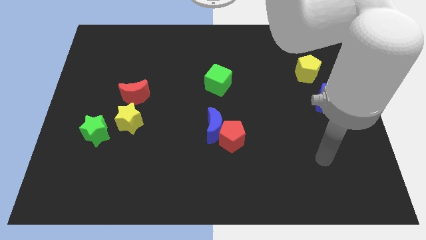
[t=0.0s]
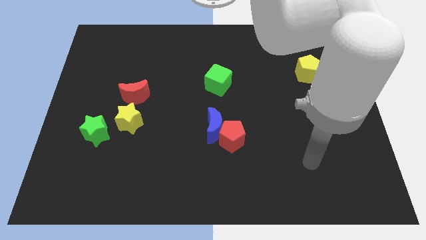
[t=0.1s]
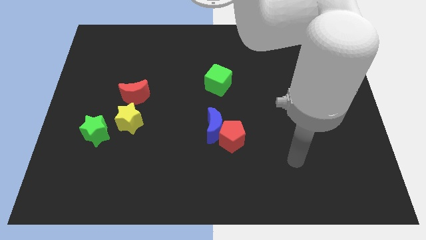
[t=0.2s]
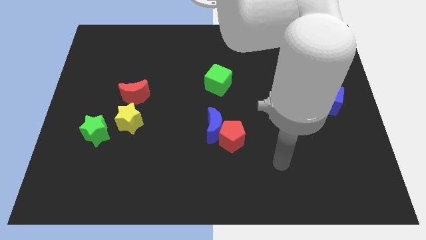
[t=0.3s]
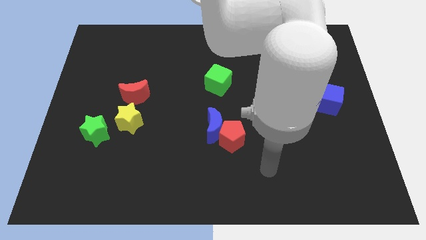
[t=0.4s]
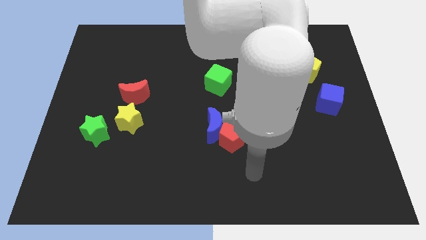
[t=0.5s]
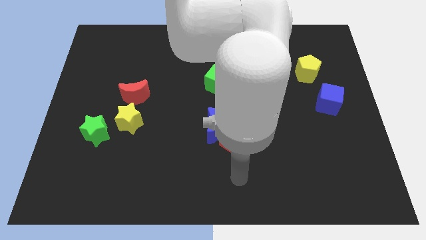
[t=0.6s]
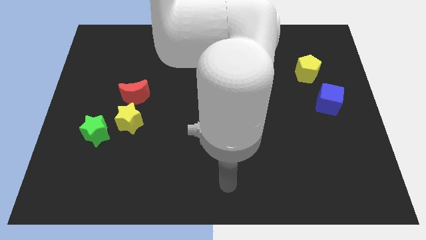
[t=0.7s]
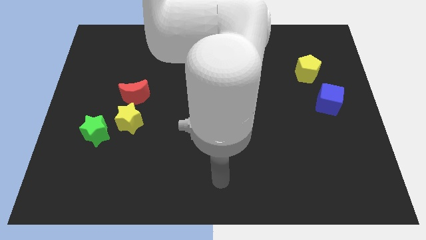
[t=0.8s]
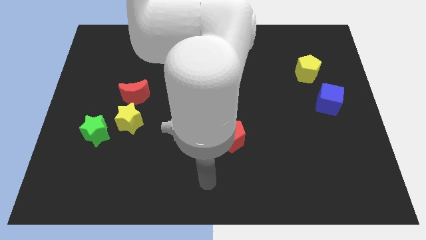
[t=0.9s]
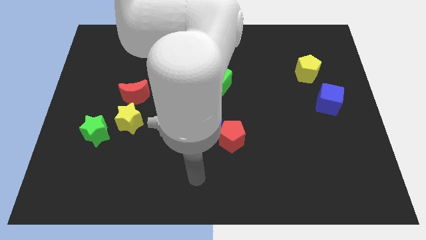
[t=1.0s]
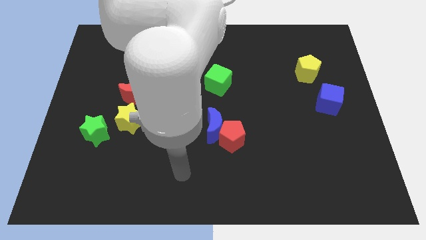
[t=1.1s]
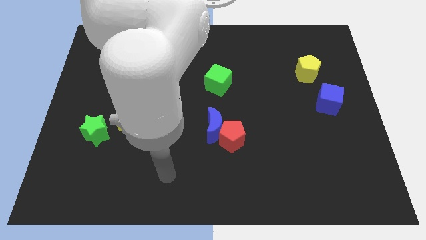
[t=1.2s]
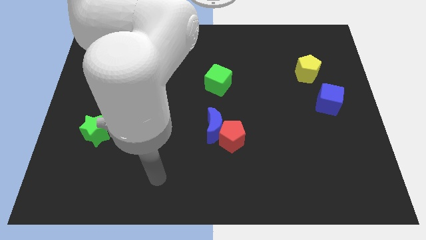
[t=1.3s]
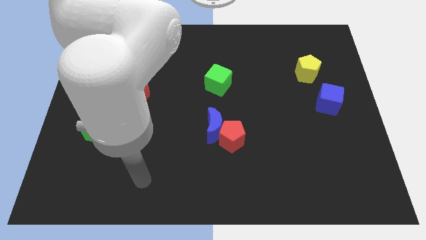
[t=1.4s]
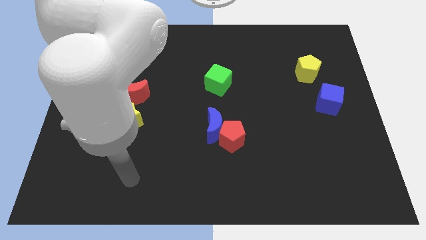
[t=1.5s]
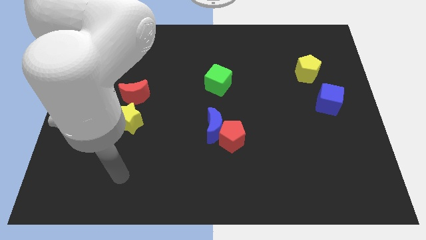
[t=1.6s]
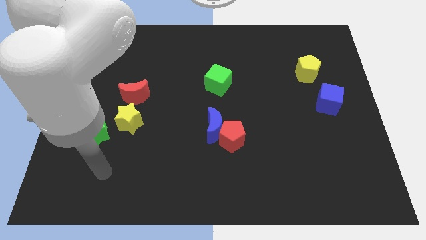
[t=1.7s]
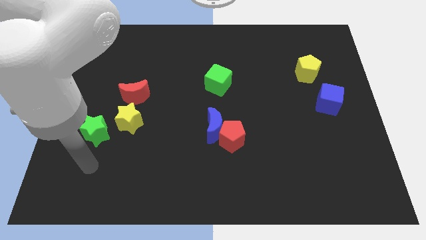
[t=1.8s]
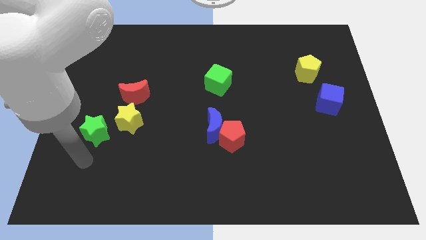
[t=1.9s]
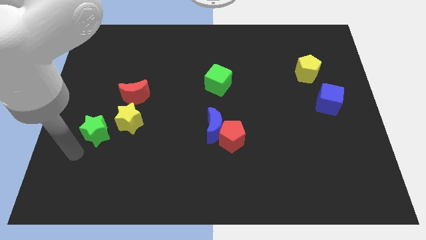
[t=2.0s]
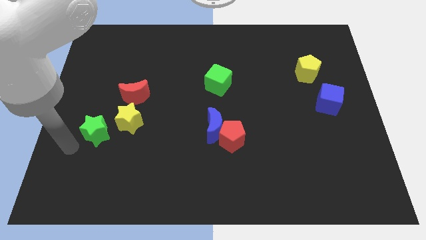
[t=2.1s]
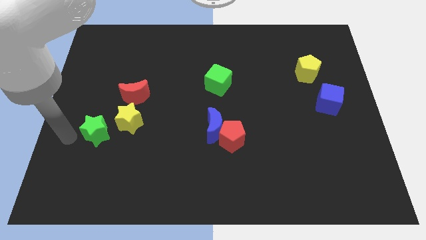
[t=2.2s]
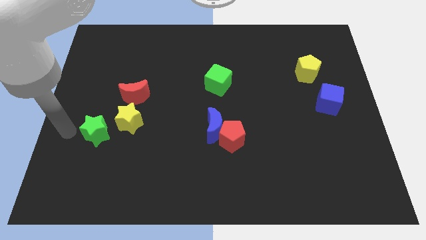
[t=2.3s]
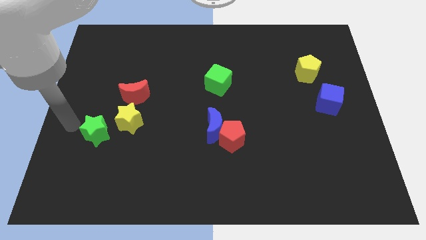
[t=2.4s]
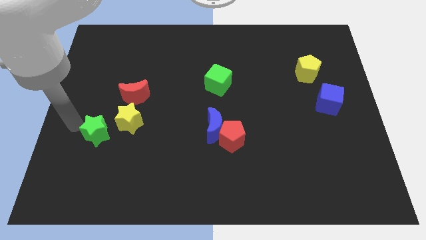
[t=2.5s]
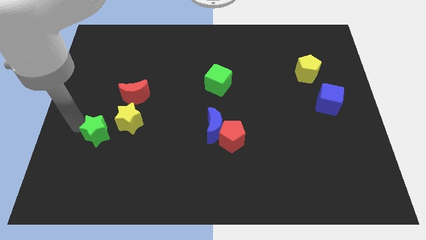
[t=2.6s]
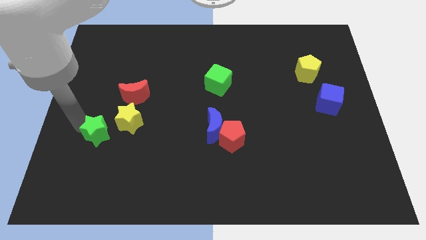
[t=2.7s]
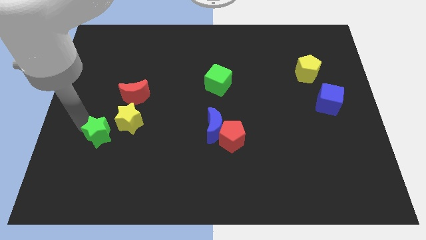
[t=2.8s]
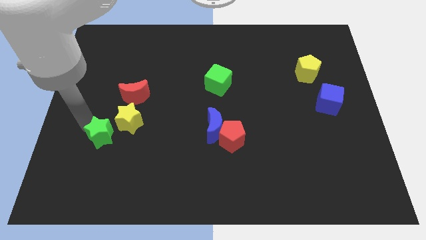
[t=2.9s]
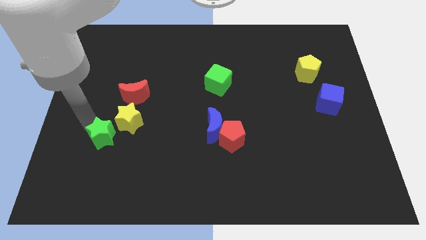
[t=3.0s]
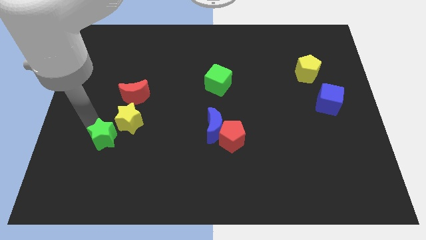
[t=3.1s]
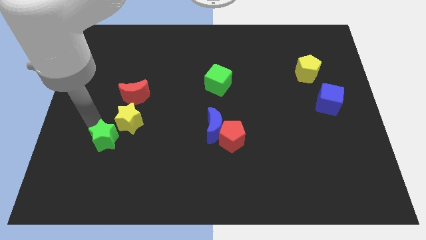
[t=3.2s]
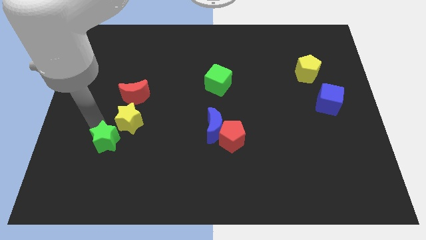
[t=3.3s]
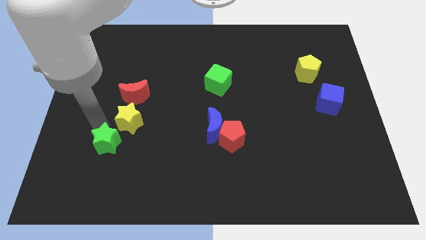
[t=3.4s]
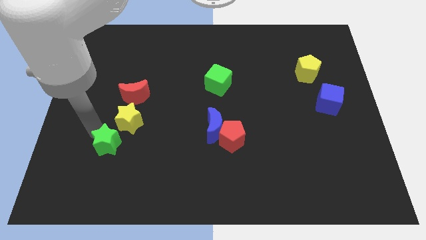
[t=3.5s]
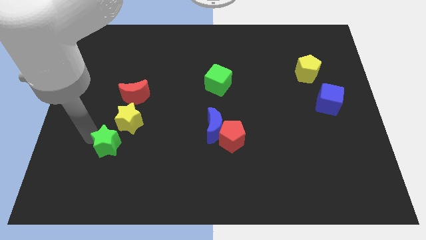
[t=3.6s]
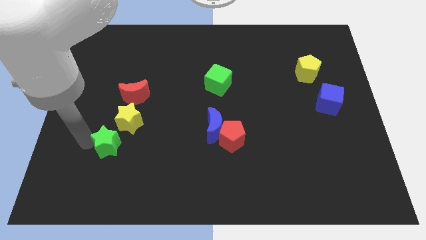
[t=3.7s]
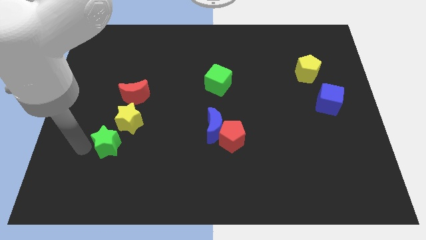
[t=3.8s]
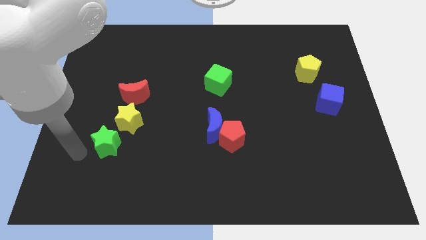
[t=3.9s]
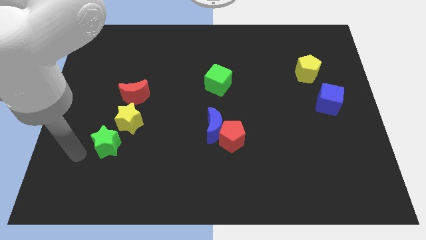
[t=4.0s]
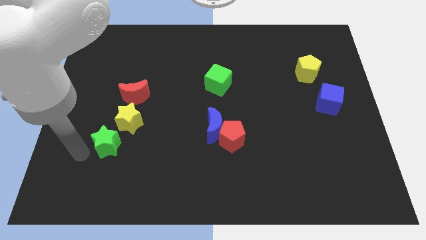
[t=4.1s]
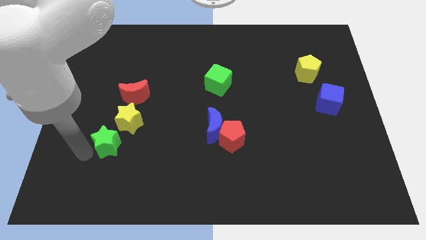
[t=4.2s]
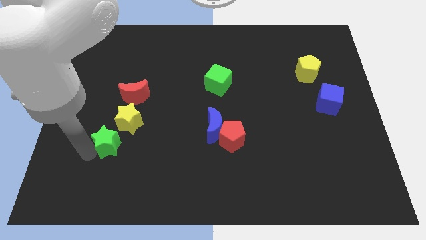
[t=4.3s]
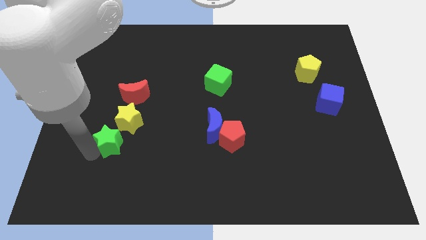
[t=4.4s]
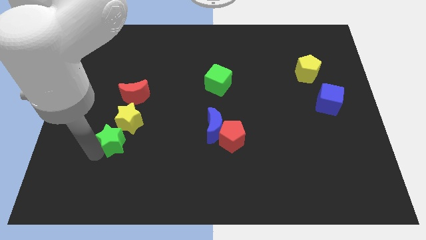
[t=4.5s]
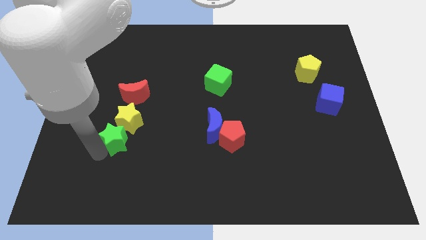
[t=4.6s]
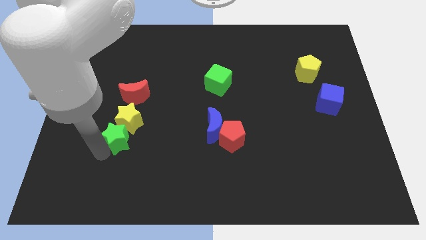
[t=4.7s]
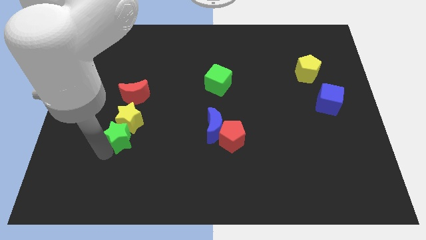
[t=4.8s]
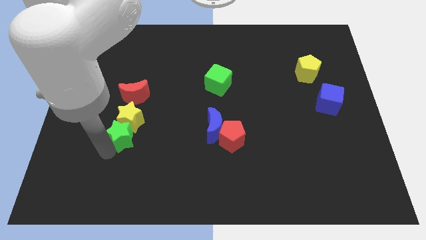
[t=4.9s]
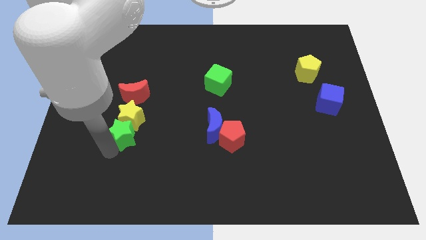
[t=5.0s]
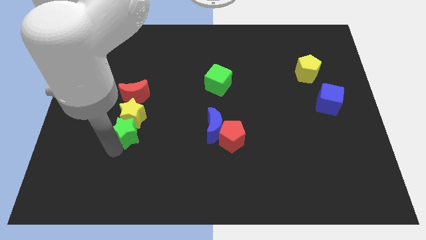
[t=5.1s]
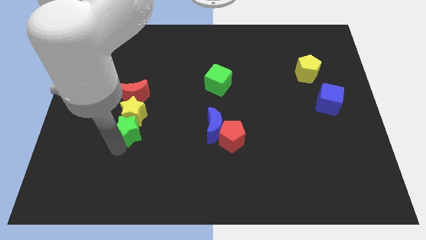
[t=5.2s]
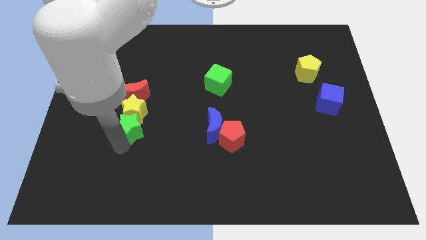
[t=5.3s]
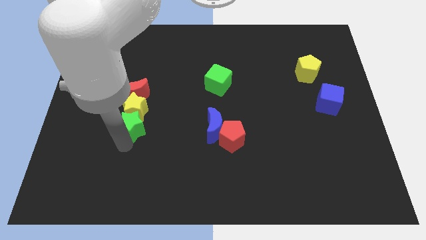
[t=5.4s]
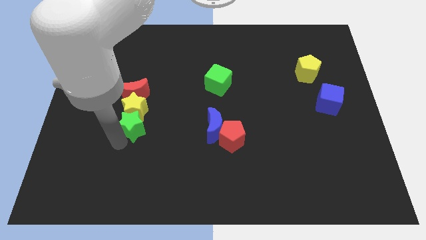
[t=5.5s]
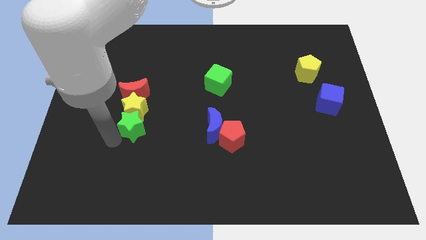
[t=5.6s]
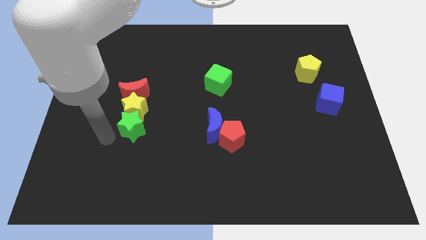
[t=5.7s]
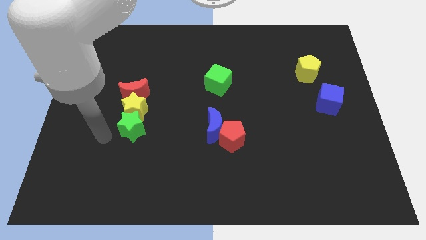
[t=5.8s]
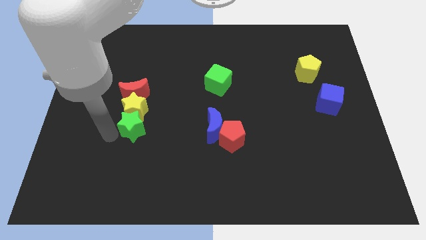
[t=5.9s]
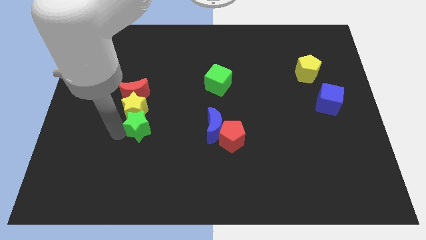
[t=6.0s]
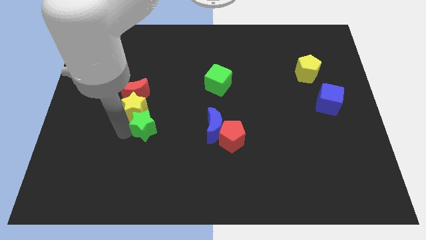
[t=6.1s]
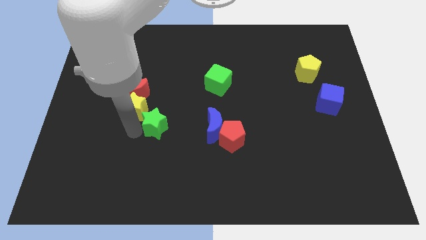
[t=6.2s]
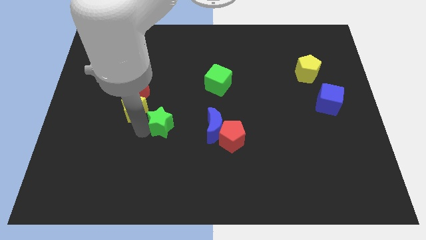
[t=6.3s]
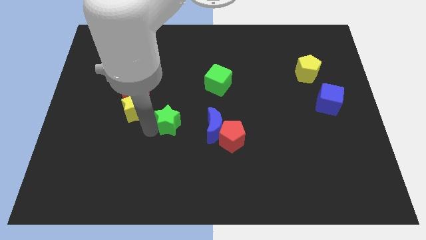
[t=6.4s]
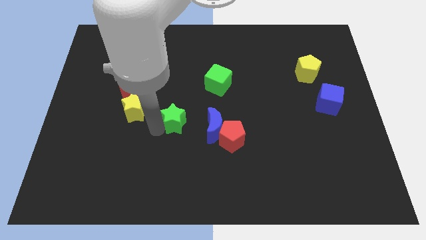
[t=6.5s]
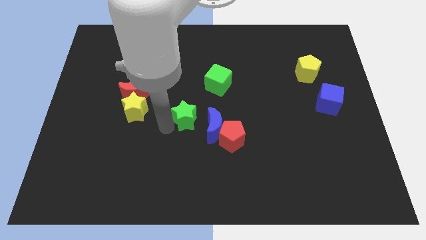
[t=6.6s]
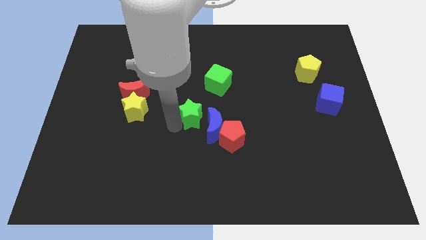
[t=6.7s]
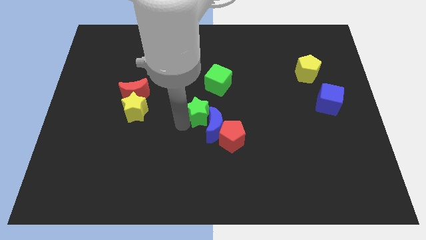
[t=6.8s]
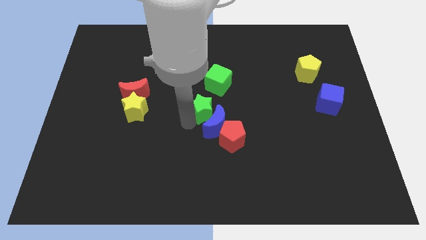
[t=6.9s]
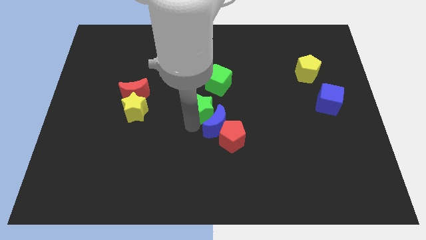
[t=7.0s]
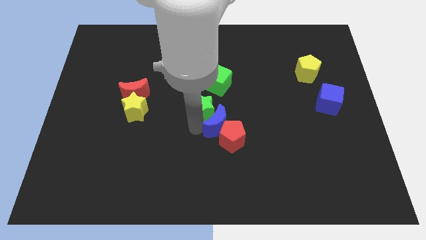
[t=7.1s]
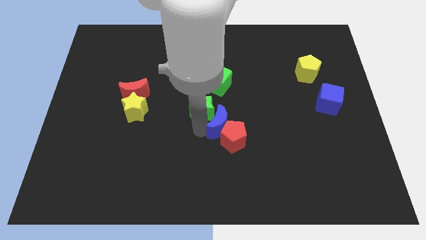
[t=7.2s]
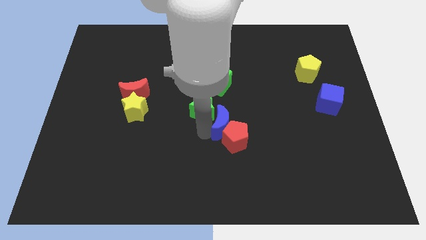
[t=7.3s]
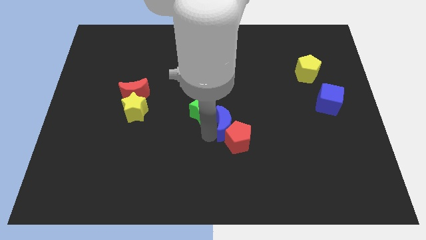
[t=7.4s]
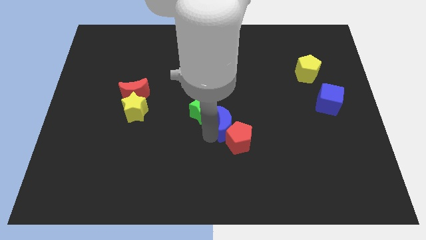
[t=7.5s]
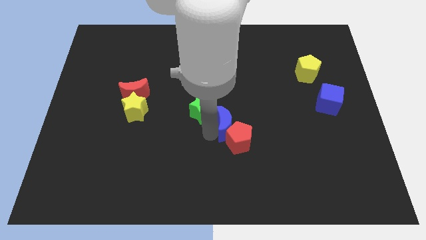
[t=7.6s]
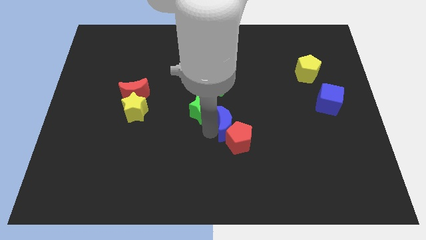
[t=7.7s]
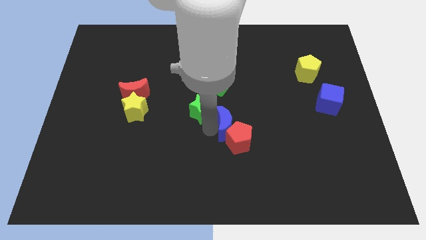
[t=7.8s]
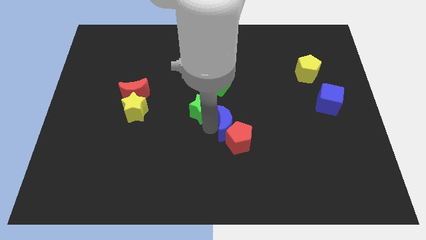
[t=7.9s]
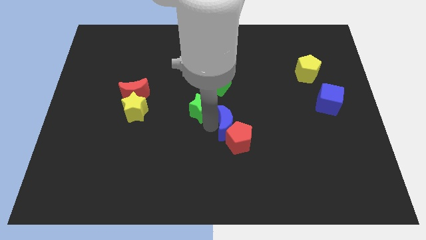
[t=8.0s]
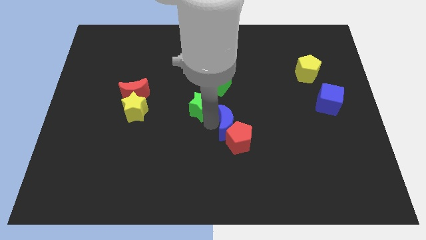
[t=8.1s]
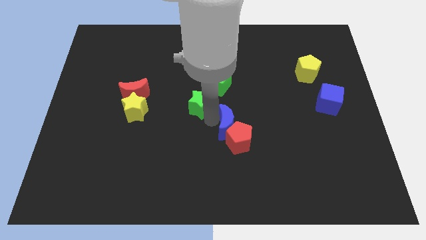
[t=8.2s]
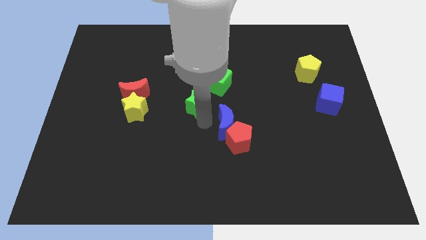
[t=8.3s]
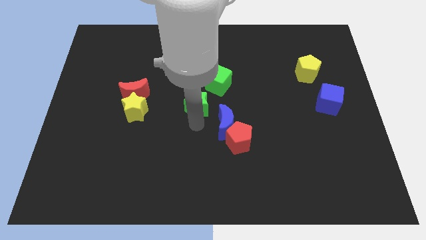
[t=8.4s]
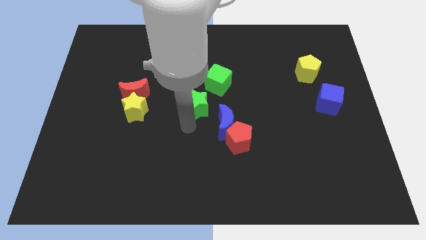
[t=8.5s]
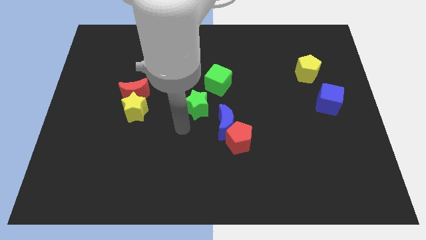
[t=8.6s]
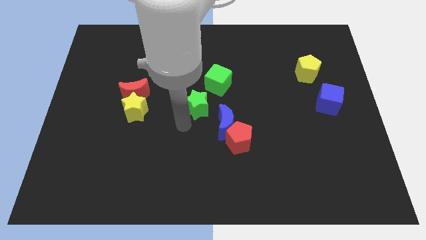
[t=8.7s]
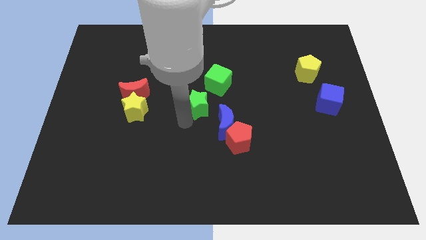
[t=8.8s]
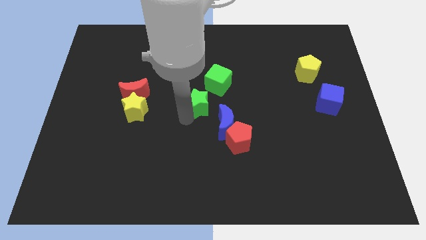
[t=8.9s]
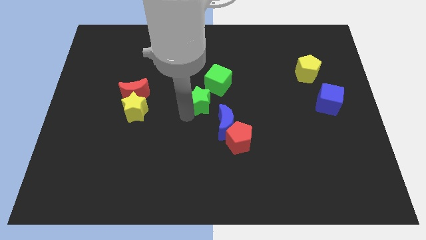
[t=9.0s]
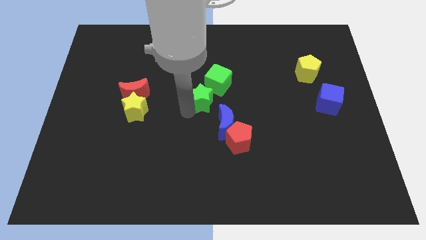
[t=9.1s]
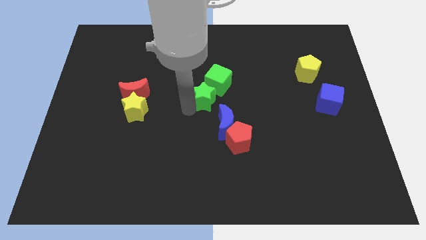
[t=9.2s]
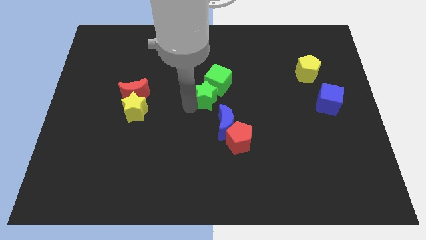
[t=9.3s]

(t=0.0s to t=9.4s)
move the green star towards the green cube
